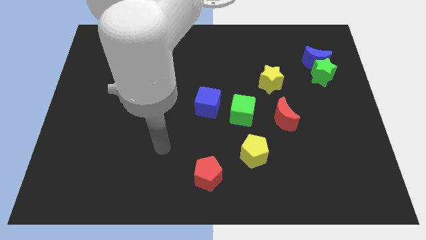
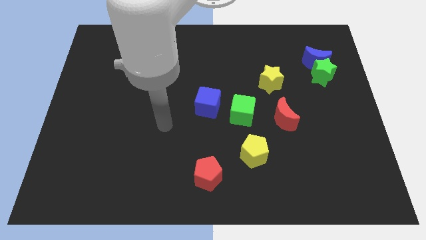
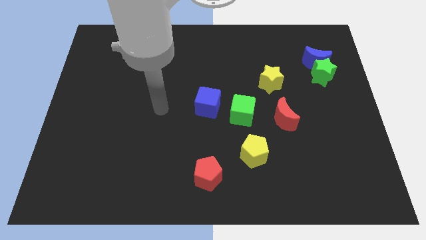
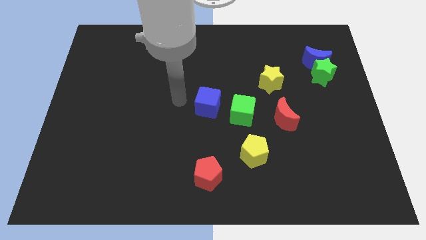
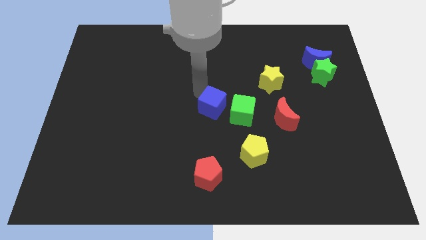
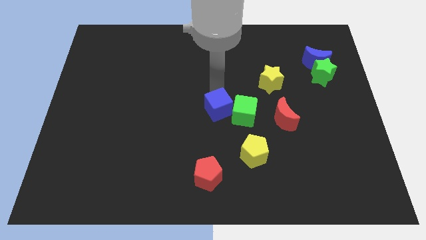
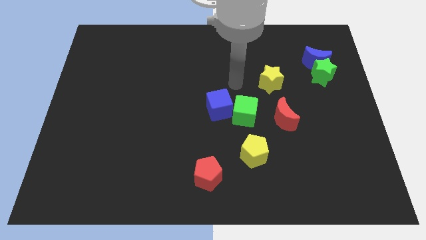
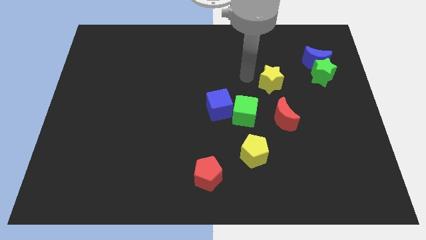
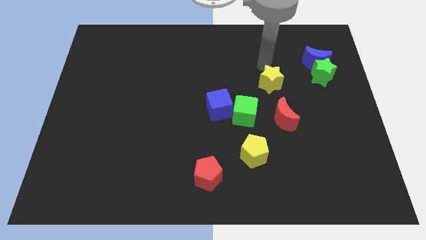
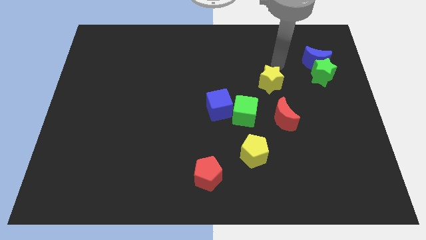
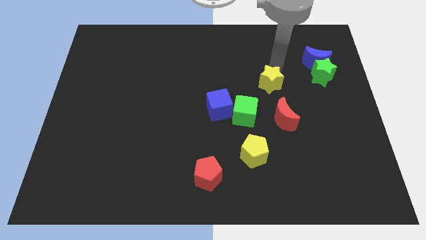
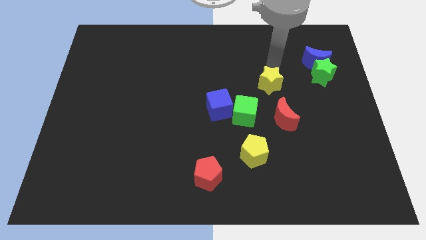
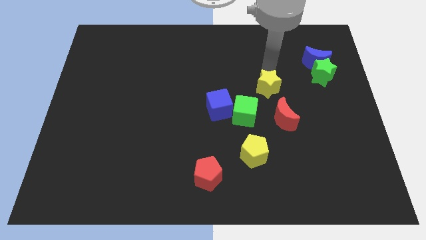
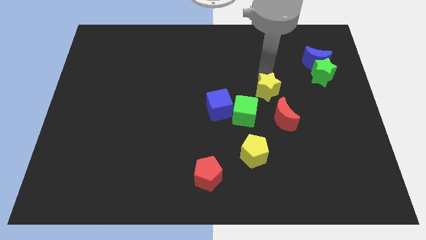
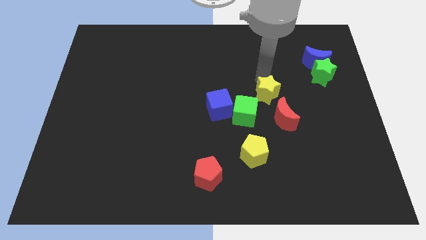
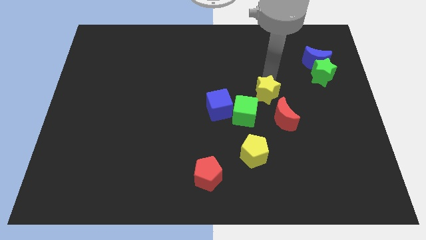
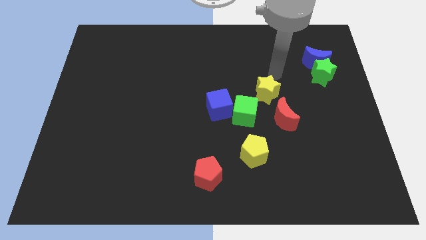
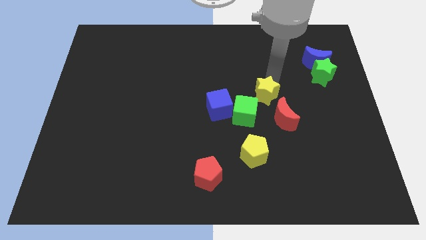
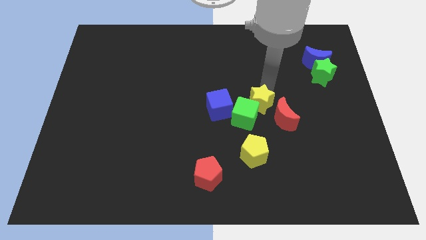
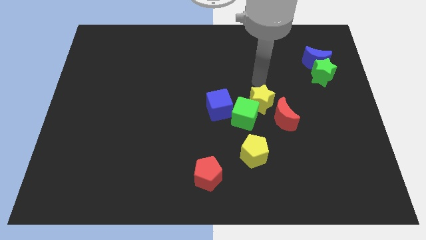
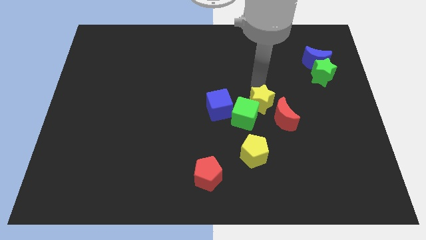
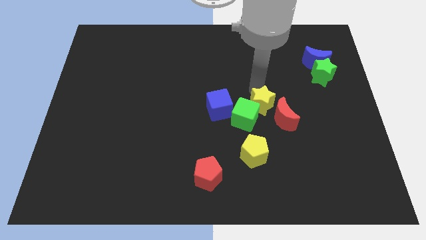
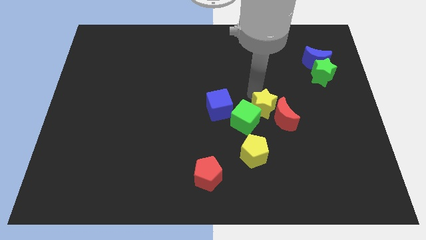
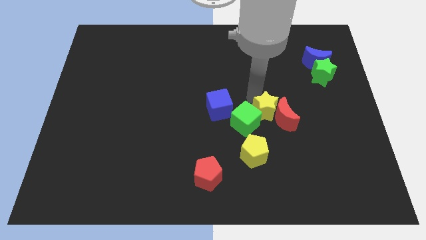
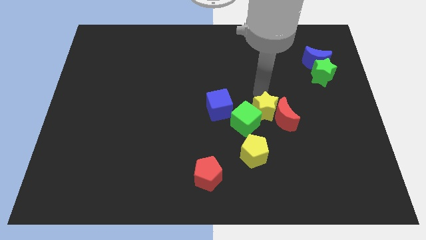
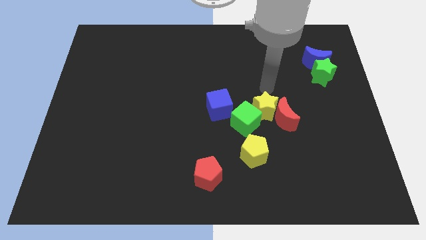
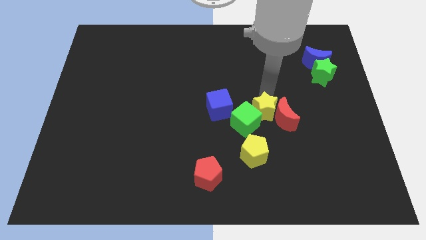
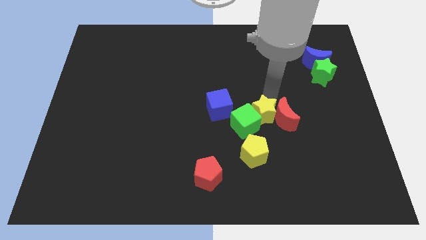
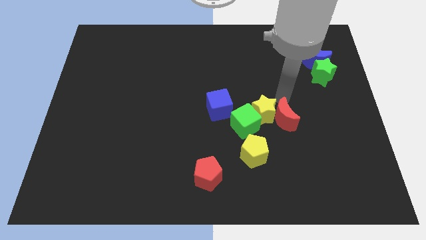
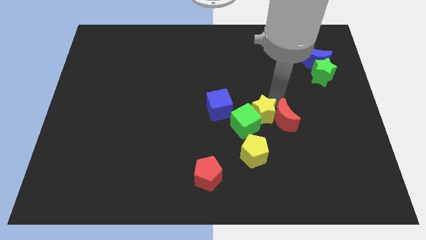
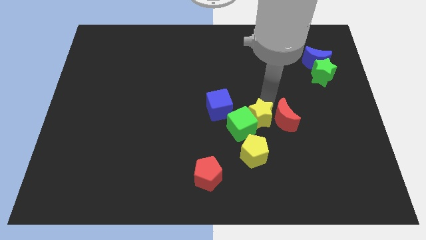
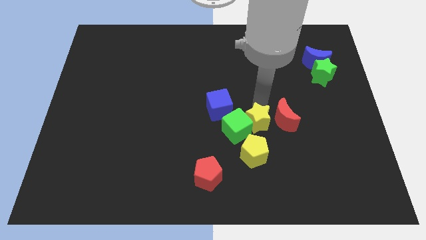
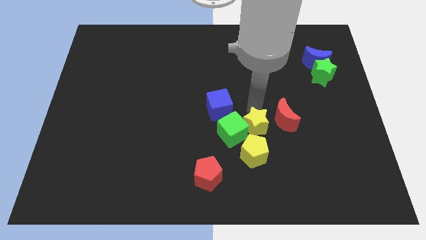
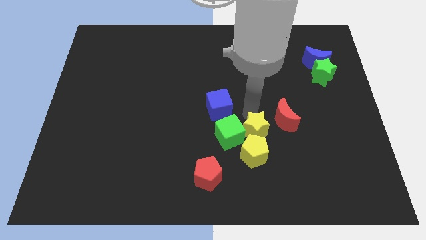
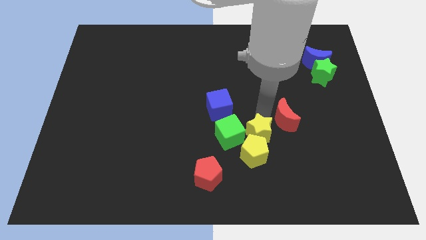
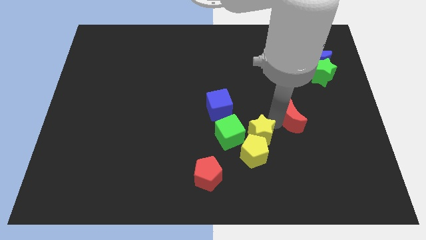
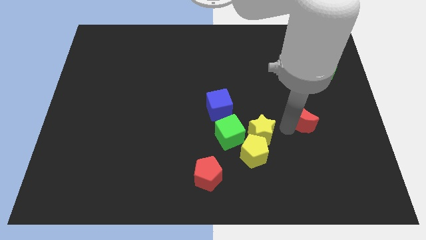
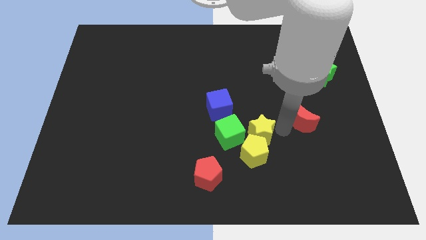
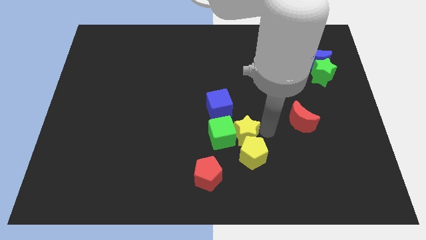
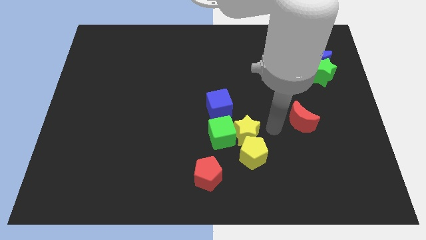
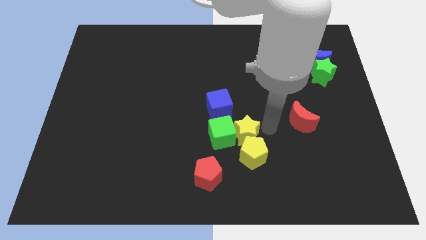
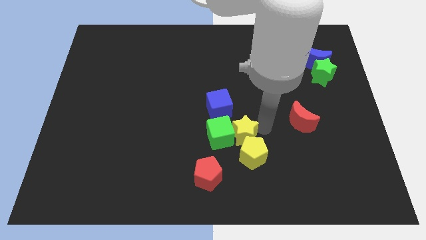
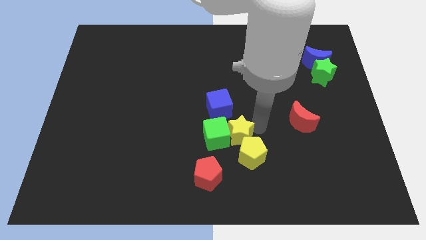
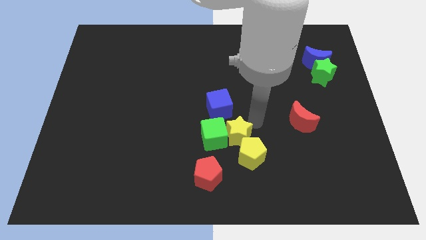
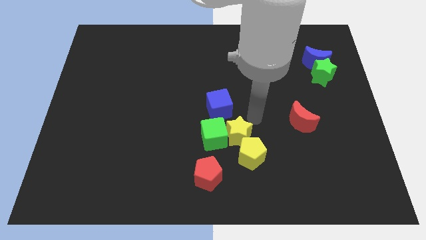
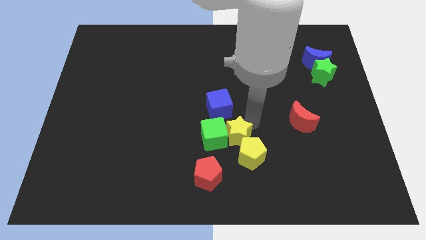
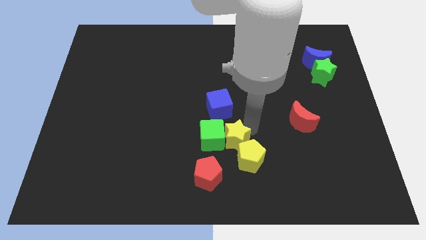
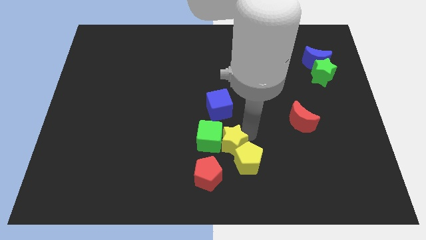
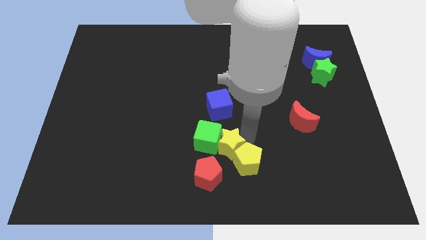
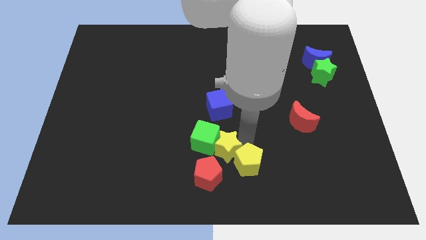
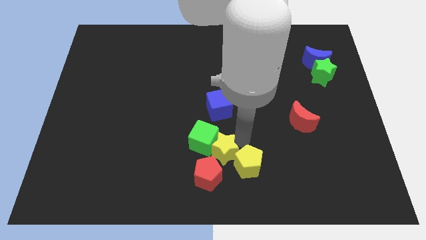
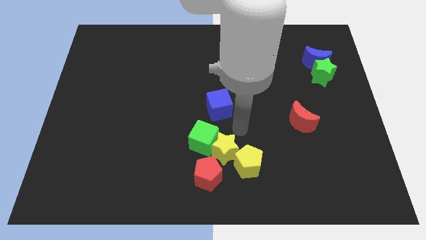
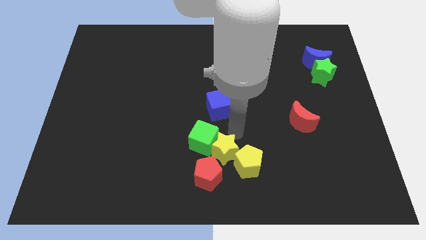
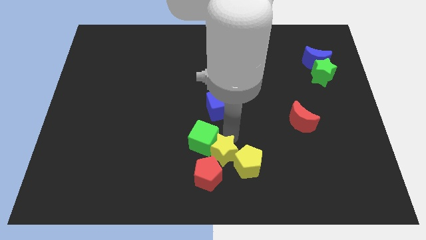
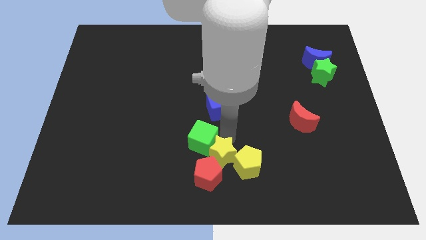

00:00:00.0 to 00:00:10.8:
slide the yellow star close to the red pentagon

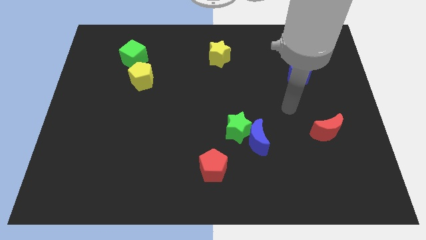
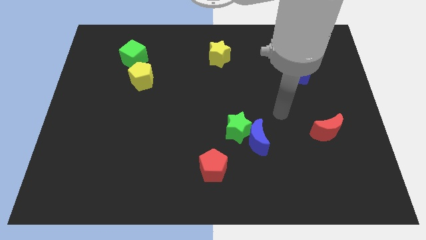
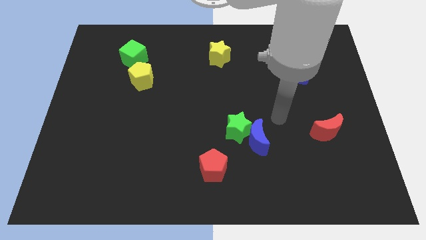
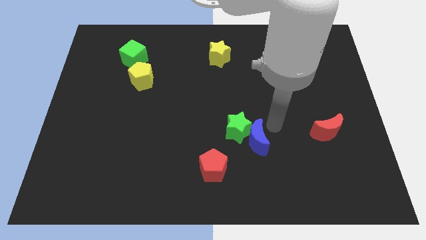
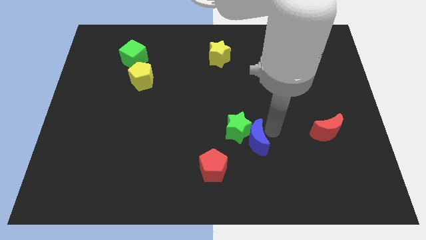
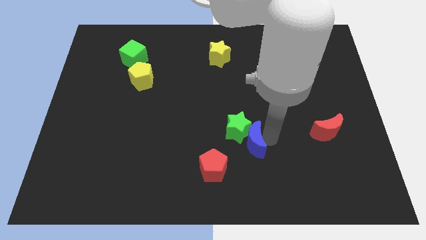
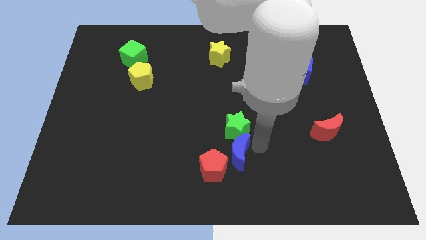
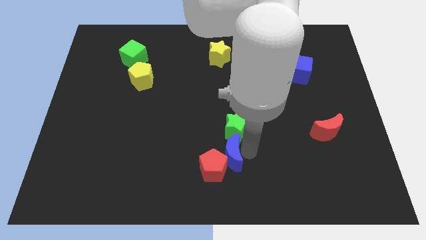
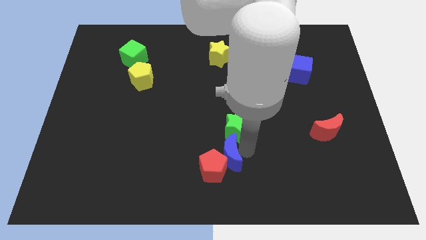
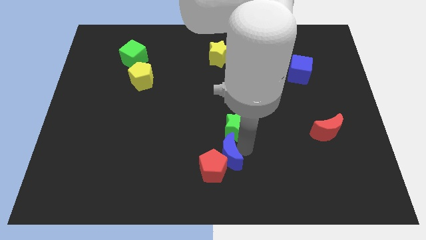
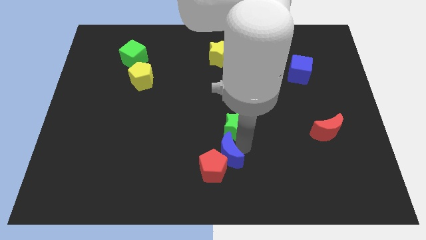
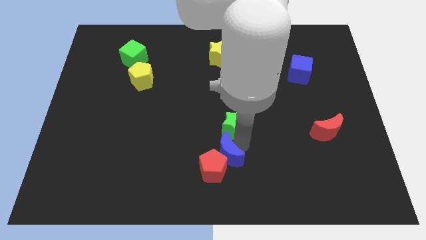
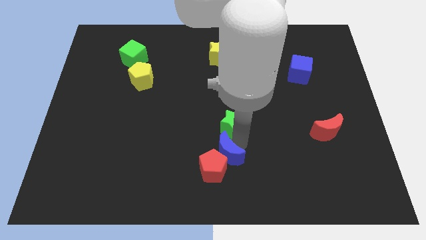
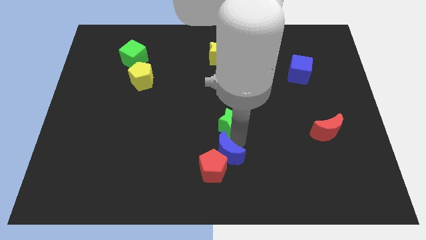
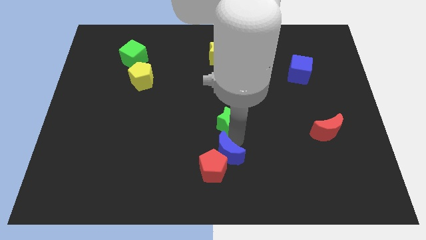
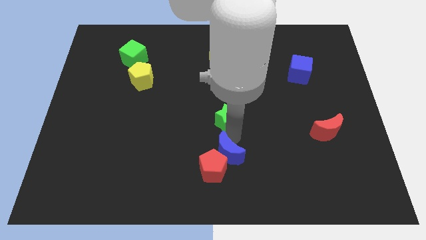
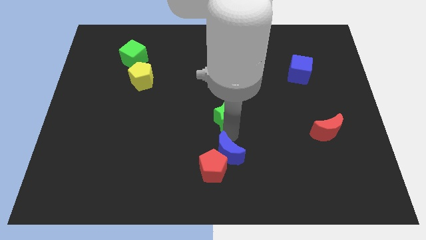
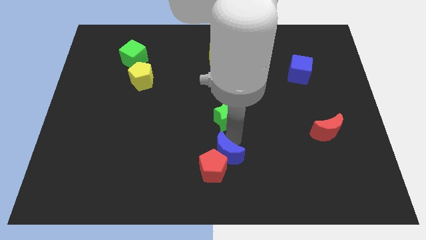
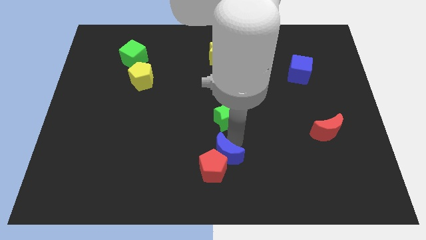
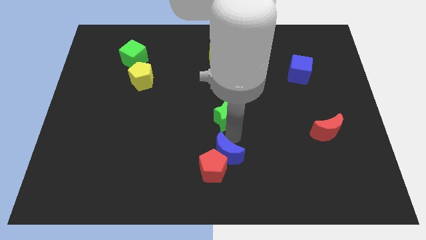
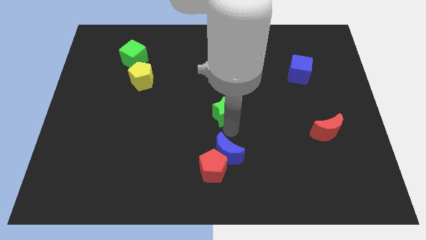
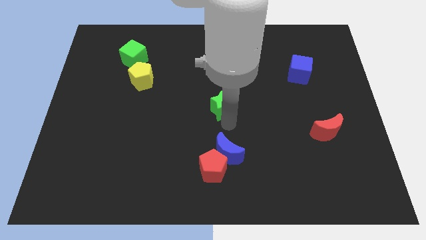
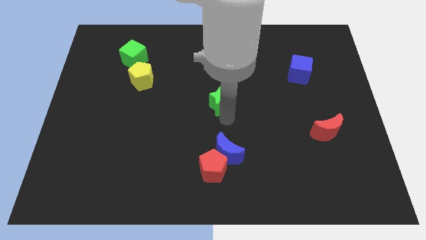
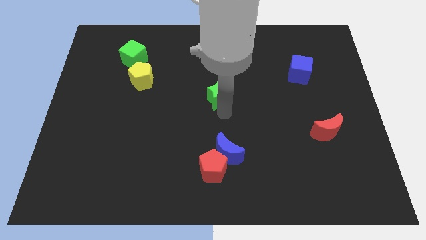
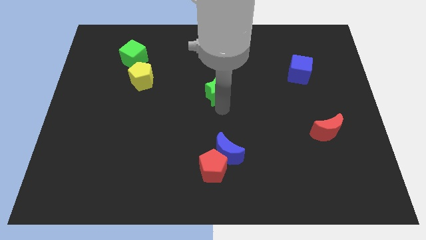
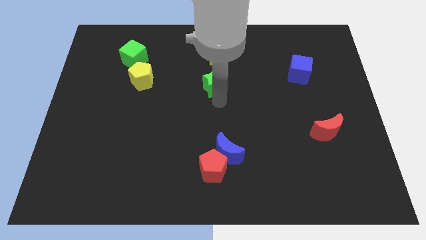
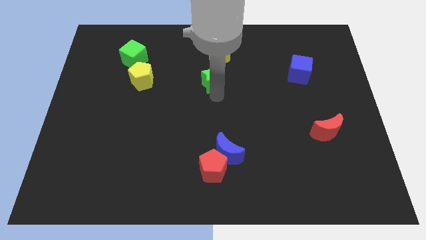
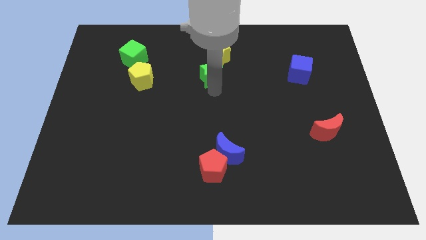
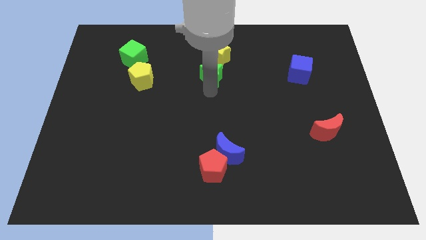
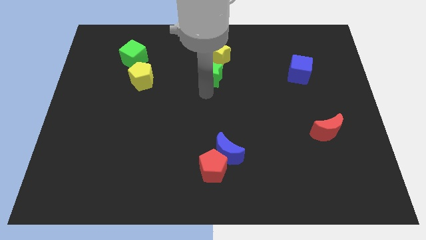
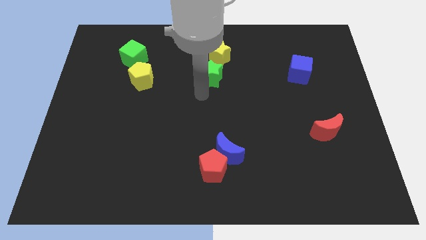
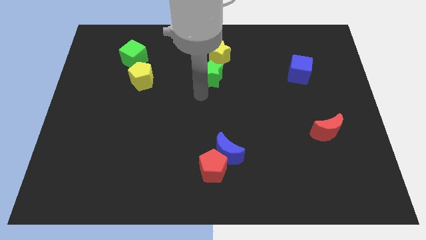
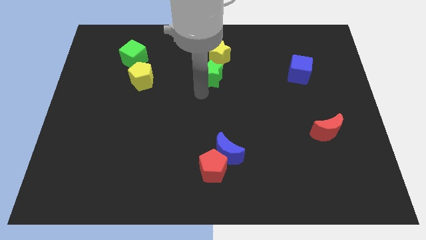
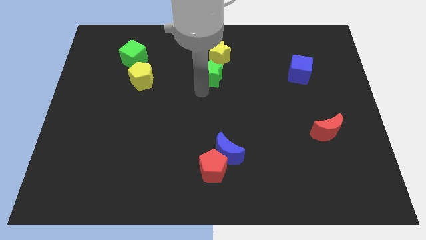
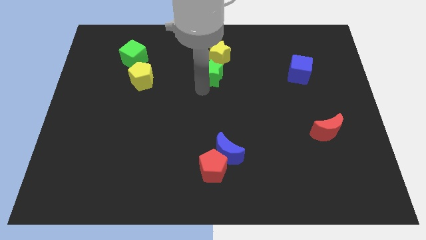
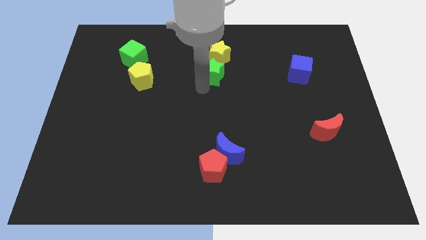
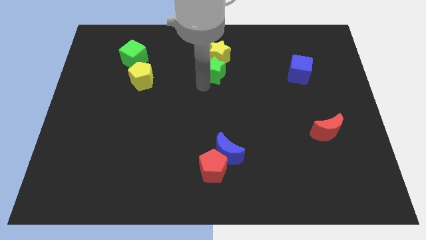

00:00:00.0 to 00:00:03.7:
slide the green star to the yellow star
